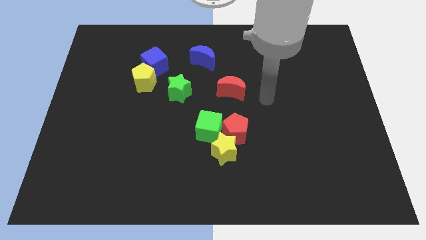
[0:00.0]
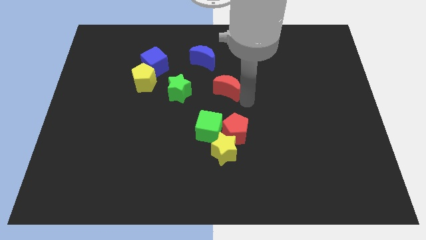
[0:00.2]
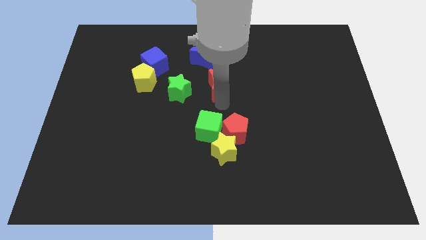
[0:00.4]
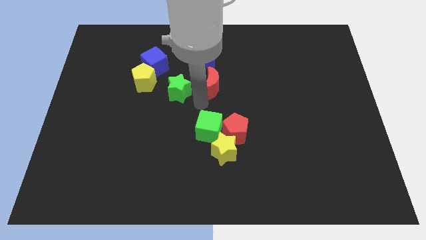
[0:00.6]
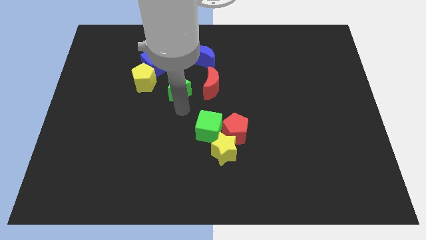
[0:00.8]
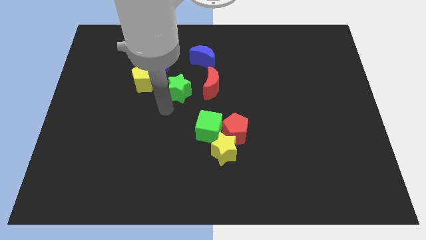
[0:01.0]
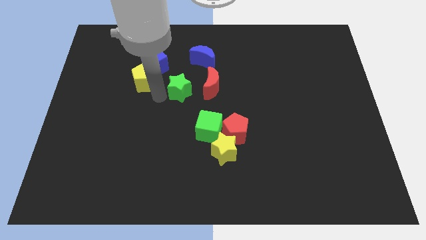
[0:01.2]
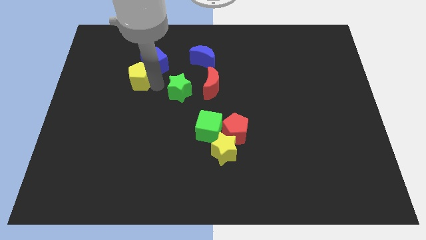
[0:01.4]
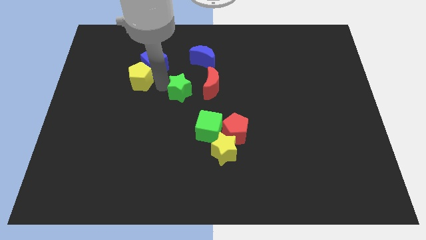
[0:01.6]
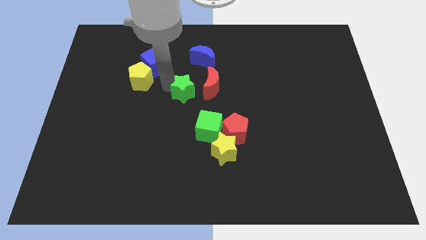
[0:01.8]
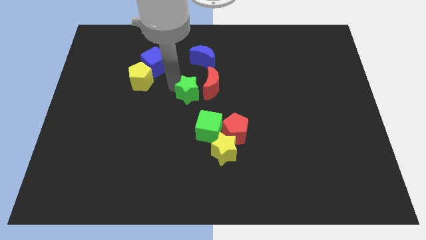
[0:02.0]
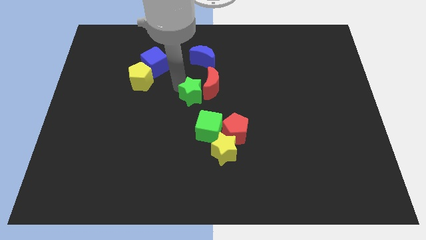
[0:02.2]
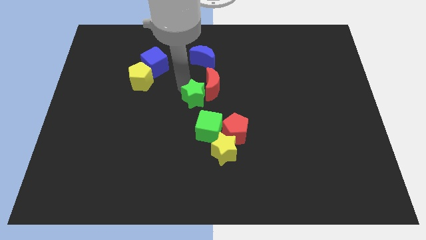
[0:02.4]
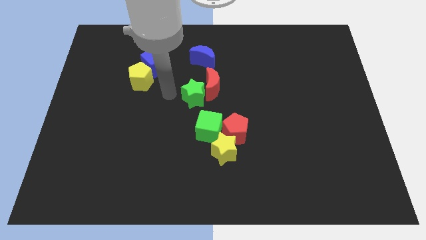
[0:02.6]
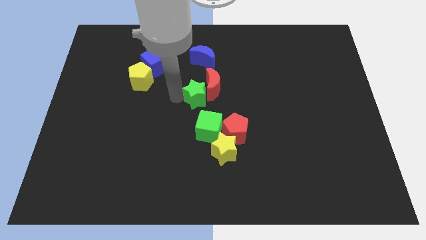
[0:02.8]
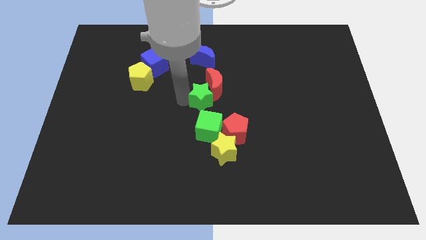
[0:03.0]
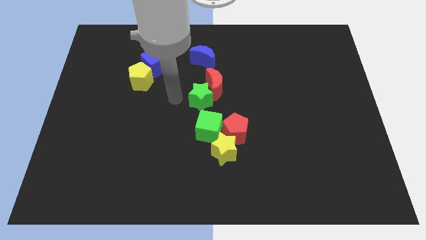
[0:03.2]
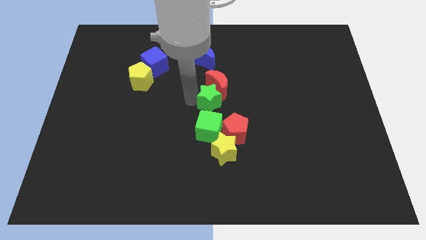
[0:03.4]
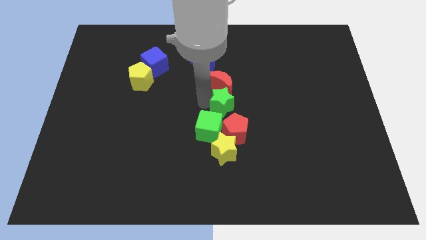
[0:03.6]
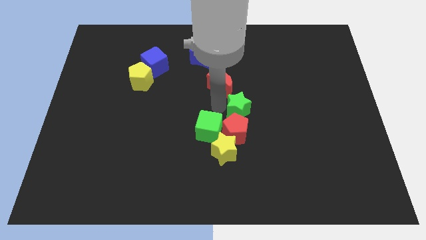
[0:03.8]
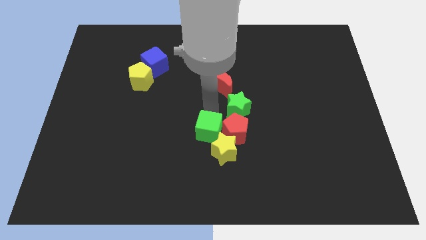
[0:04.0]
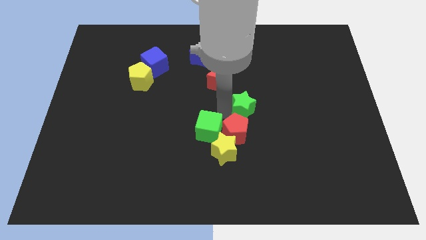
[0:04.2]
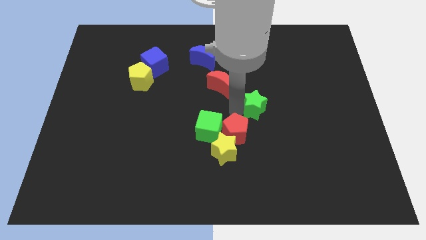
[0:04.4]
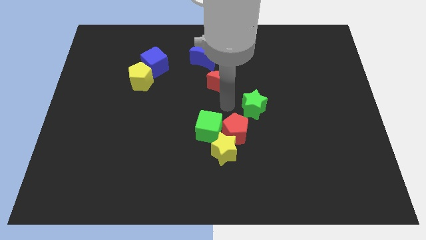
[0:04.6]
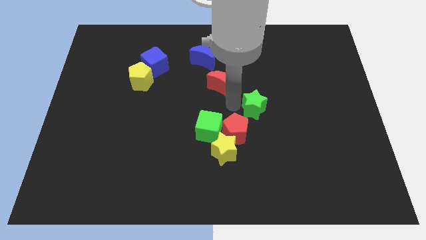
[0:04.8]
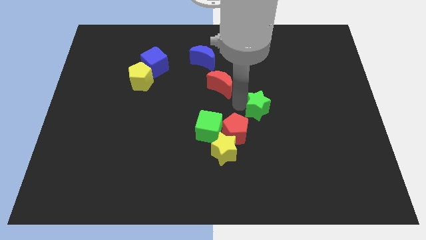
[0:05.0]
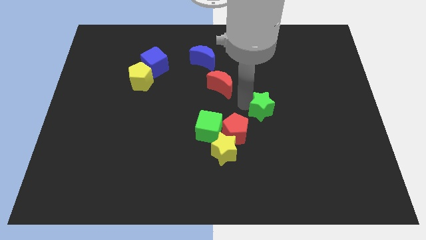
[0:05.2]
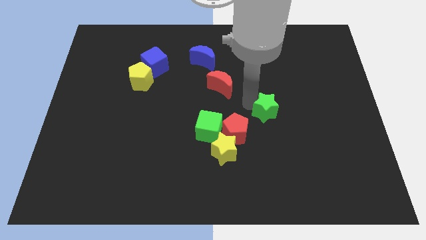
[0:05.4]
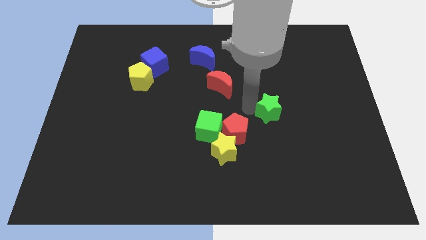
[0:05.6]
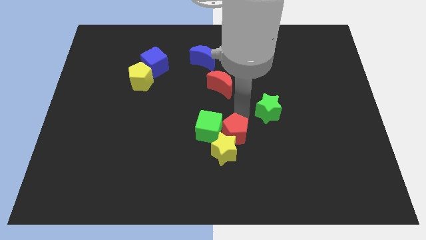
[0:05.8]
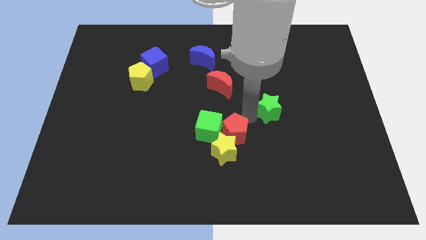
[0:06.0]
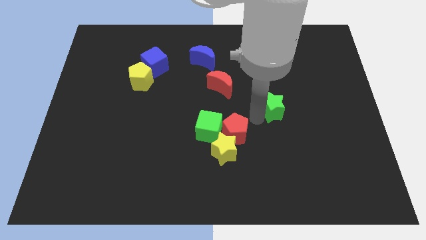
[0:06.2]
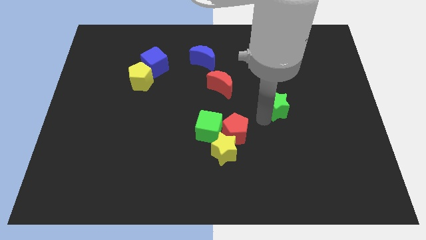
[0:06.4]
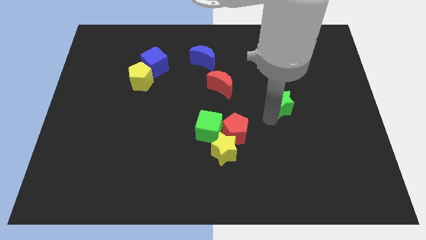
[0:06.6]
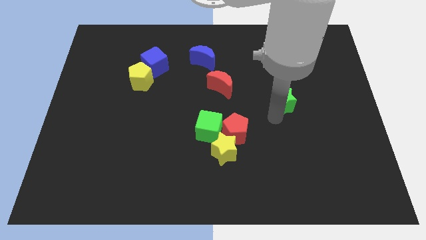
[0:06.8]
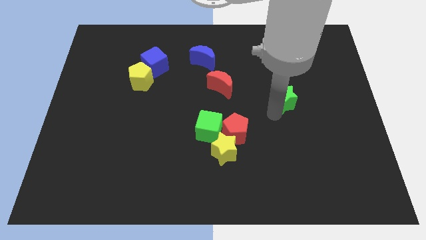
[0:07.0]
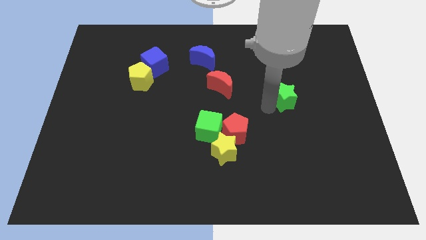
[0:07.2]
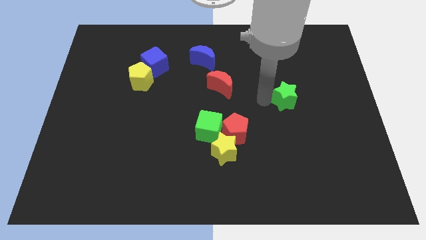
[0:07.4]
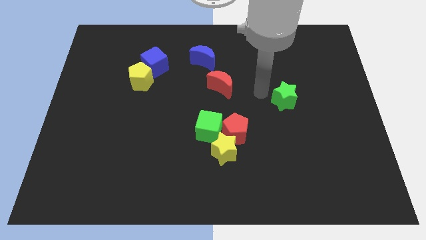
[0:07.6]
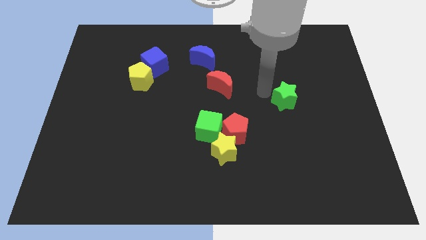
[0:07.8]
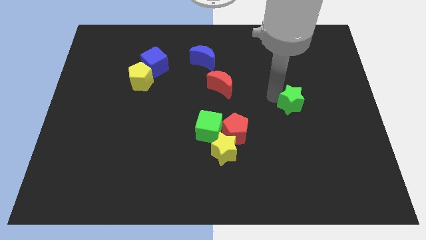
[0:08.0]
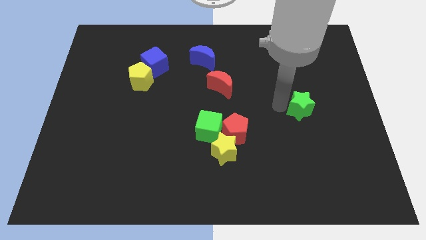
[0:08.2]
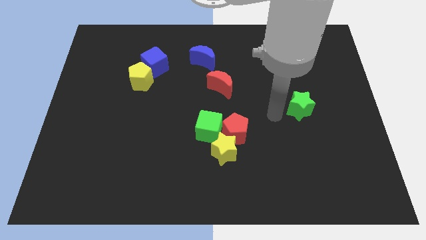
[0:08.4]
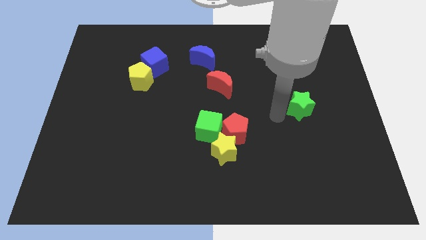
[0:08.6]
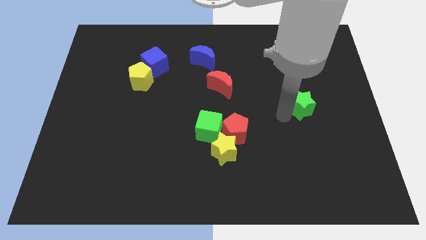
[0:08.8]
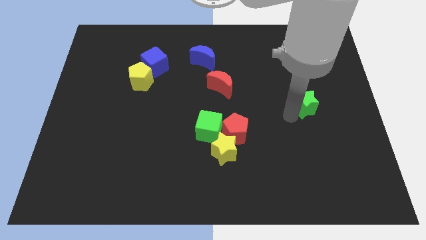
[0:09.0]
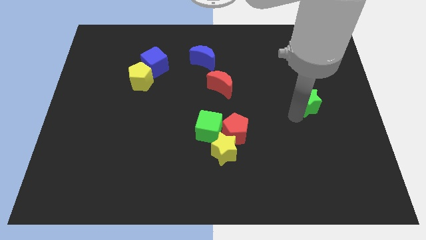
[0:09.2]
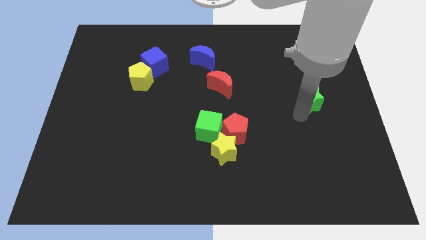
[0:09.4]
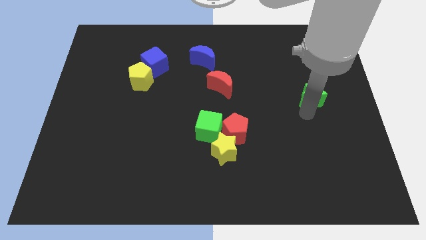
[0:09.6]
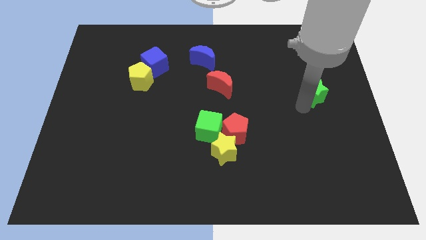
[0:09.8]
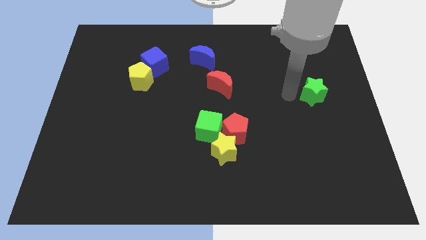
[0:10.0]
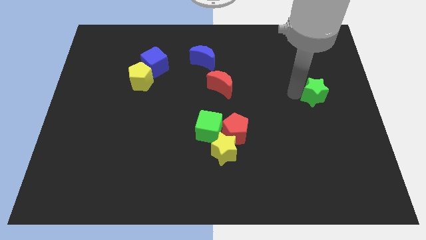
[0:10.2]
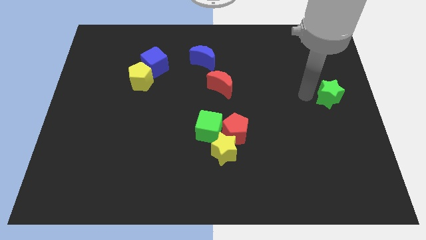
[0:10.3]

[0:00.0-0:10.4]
move the green star to the right side

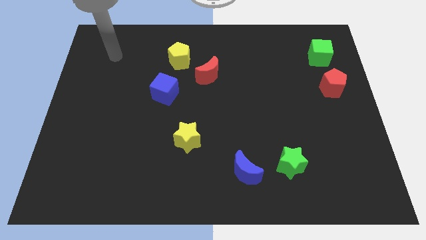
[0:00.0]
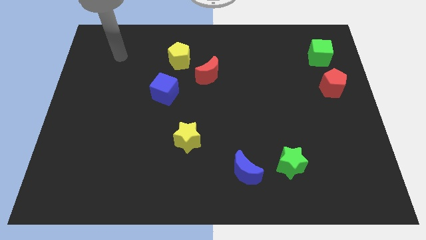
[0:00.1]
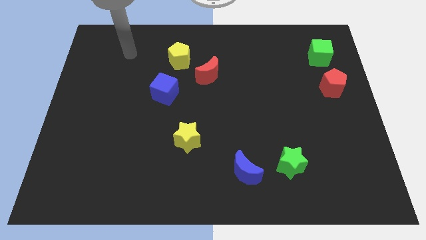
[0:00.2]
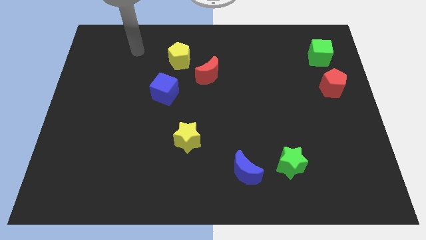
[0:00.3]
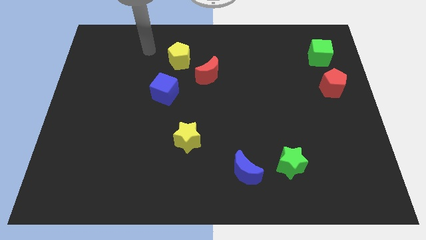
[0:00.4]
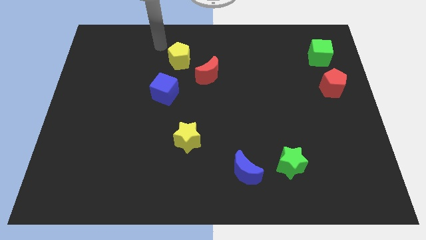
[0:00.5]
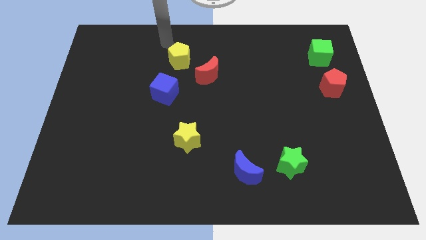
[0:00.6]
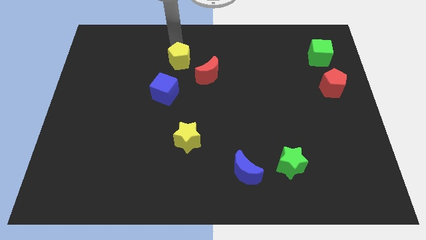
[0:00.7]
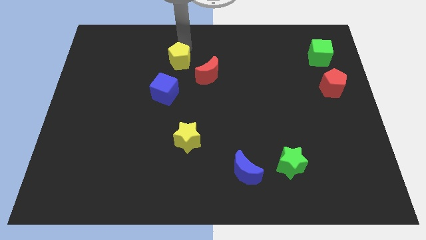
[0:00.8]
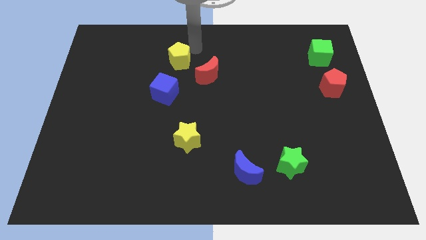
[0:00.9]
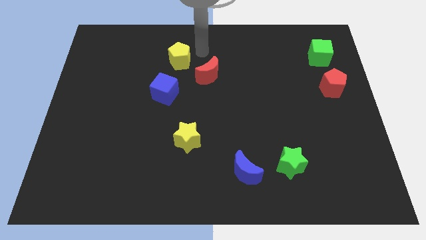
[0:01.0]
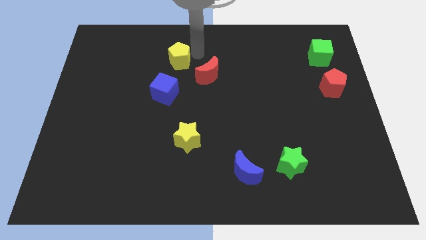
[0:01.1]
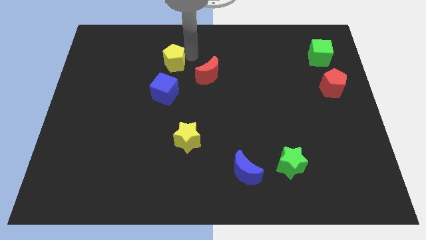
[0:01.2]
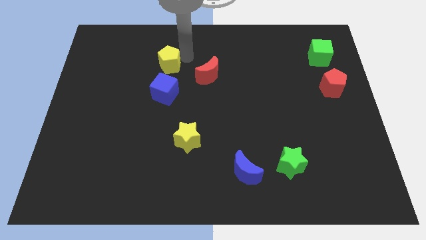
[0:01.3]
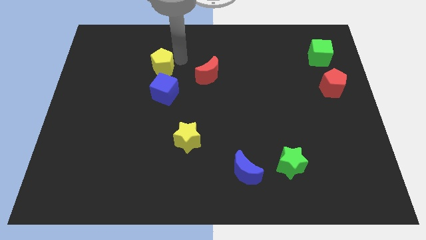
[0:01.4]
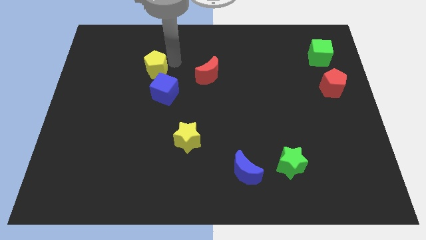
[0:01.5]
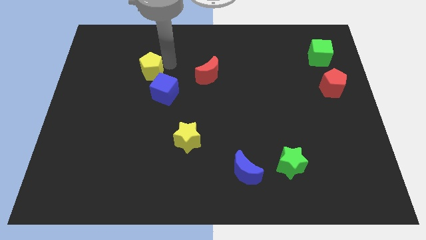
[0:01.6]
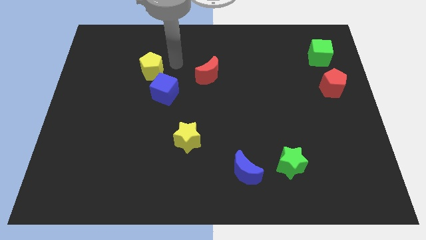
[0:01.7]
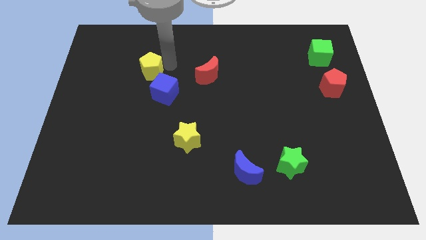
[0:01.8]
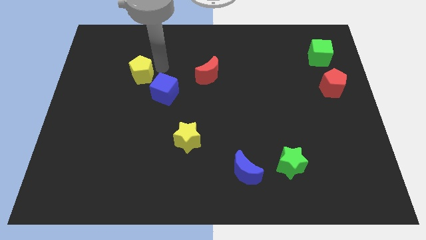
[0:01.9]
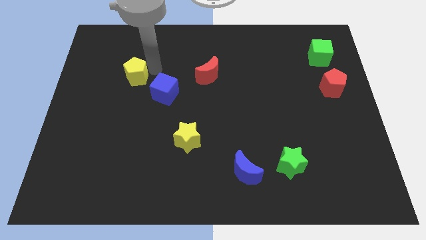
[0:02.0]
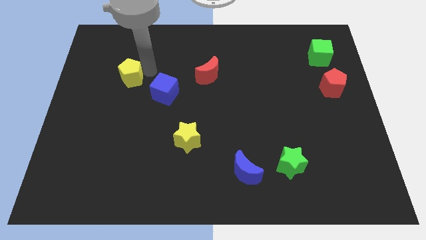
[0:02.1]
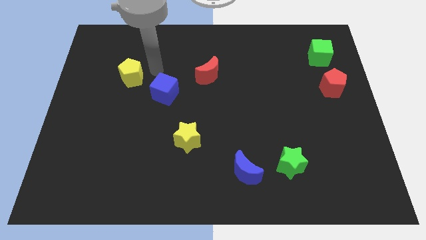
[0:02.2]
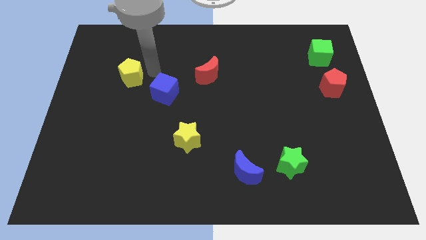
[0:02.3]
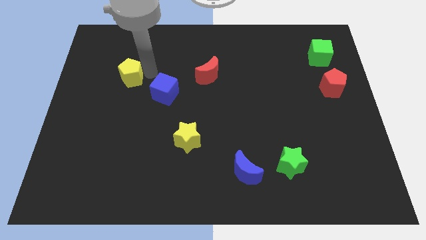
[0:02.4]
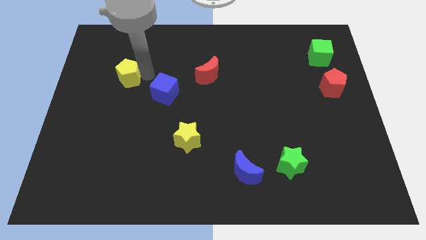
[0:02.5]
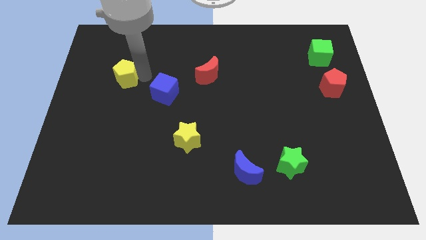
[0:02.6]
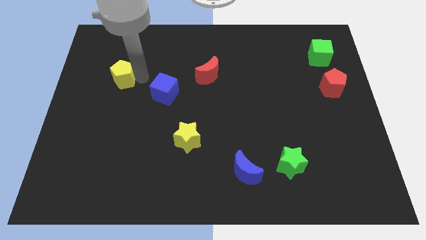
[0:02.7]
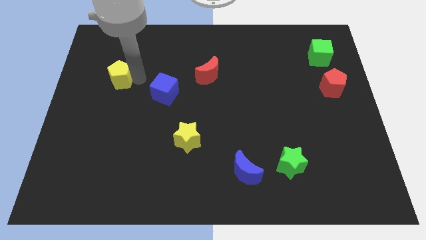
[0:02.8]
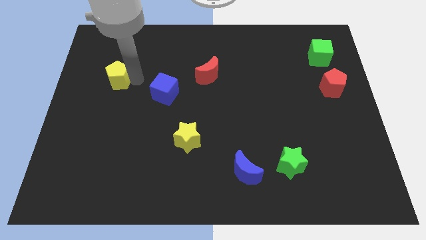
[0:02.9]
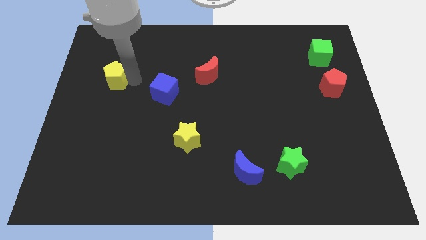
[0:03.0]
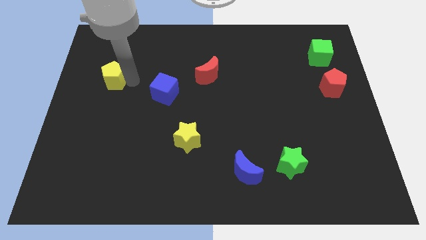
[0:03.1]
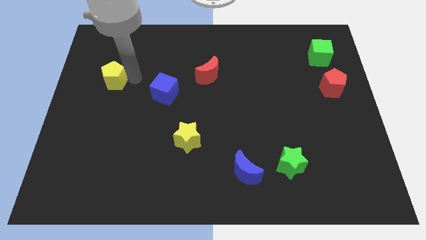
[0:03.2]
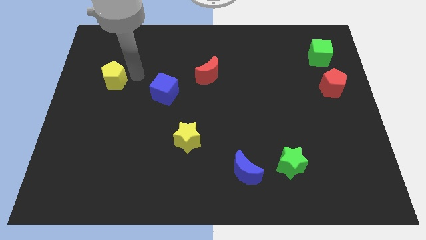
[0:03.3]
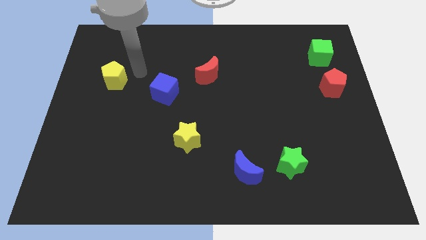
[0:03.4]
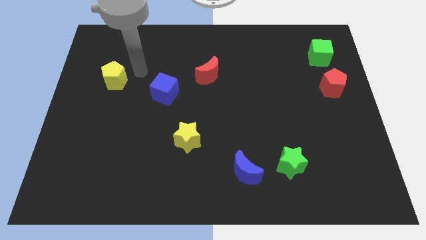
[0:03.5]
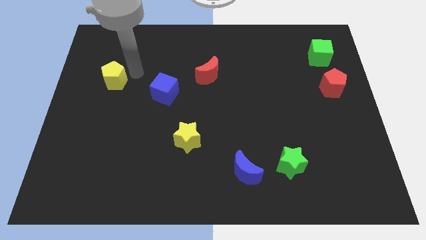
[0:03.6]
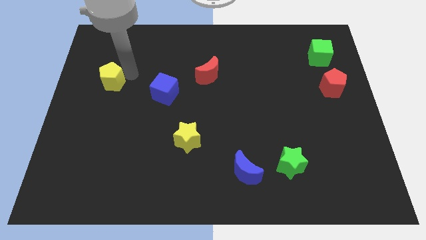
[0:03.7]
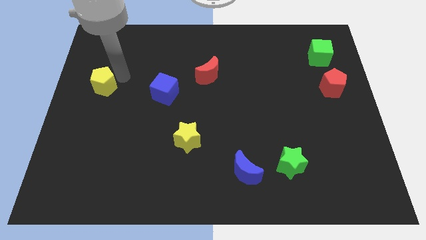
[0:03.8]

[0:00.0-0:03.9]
put the yellow pentagon to the left side
